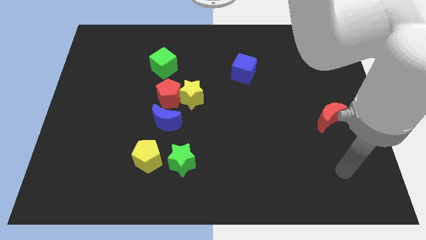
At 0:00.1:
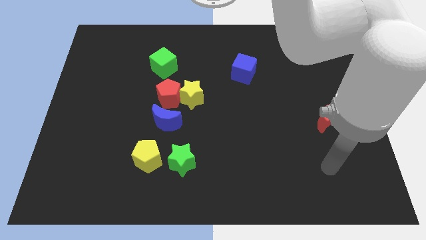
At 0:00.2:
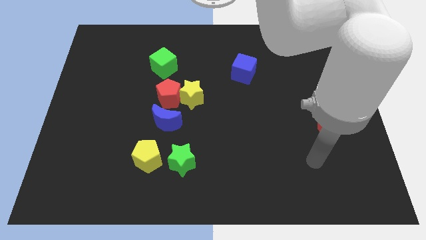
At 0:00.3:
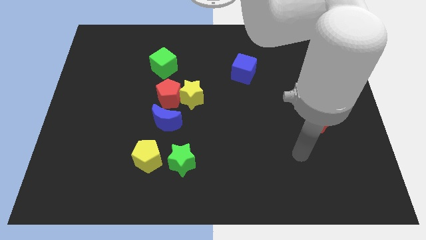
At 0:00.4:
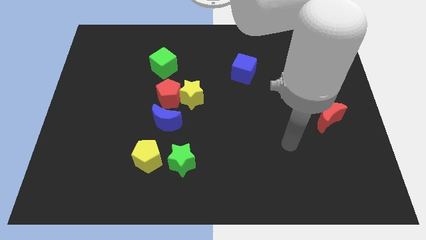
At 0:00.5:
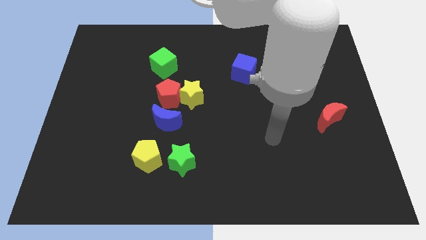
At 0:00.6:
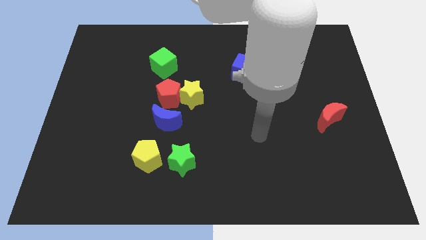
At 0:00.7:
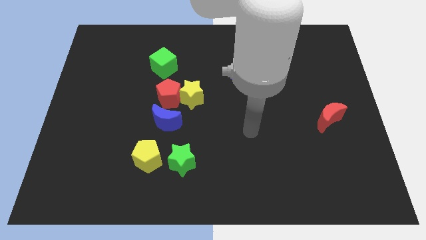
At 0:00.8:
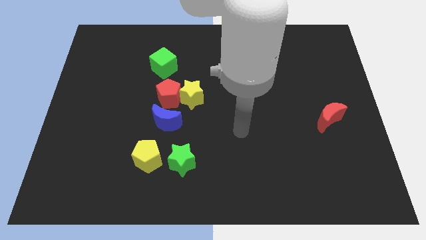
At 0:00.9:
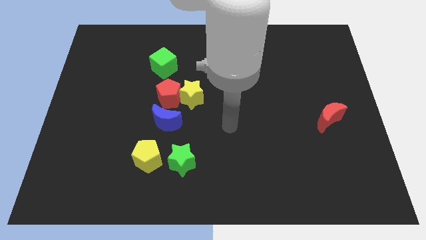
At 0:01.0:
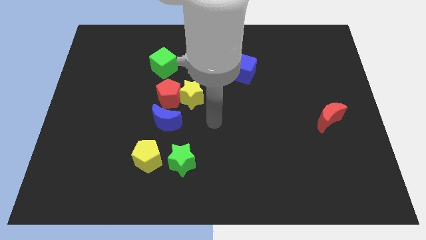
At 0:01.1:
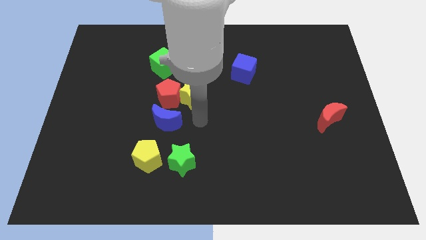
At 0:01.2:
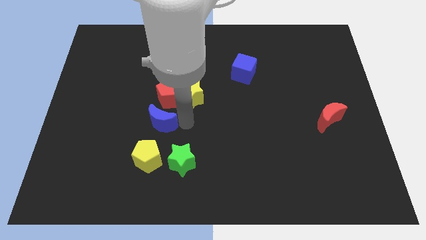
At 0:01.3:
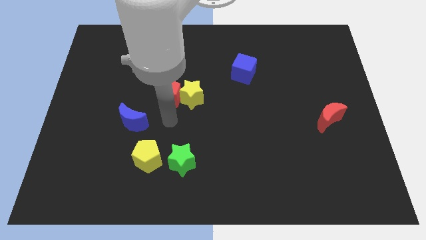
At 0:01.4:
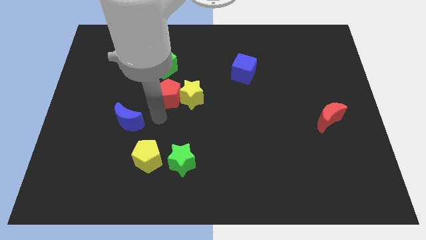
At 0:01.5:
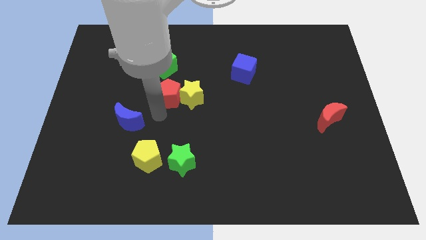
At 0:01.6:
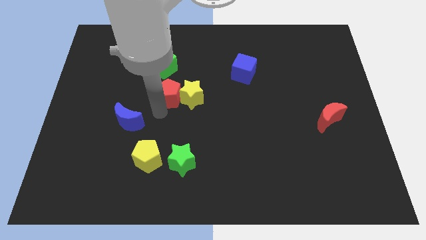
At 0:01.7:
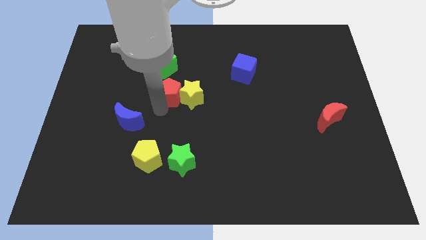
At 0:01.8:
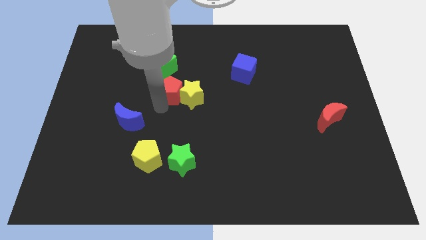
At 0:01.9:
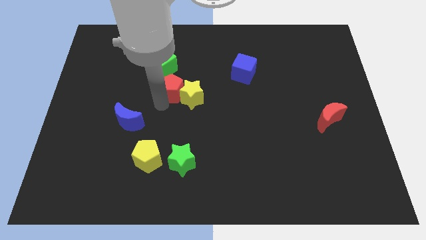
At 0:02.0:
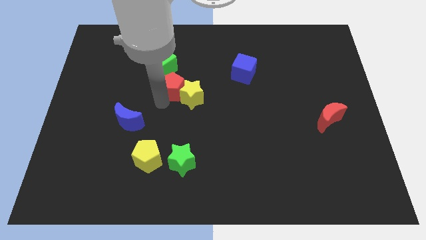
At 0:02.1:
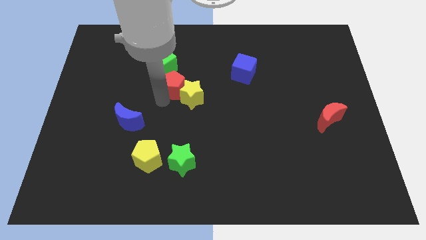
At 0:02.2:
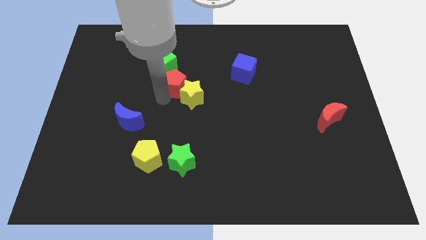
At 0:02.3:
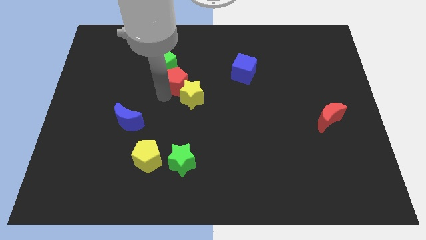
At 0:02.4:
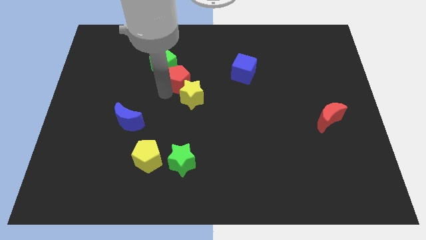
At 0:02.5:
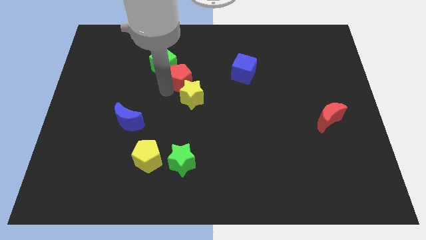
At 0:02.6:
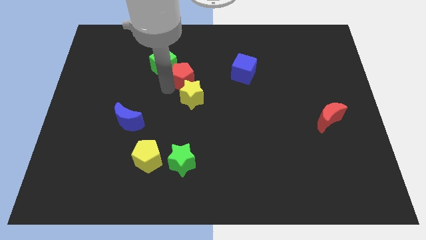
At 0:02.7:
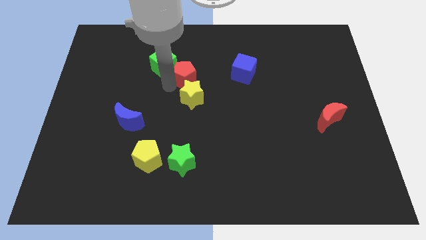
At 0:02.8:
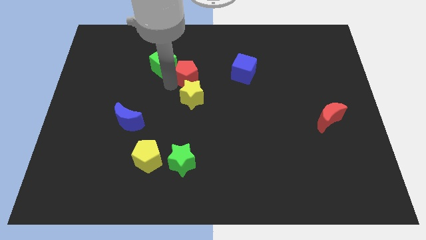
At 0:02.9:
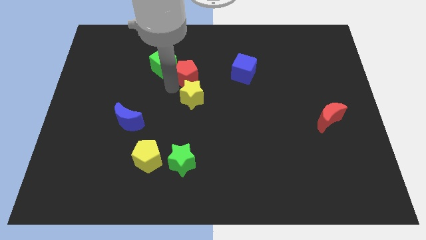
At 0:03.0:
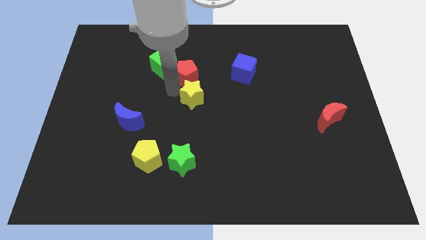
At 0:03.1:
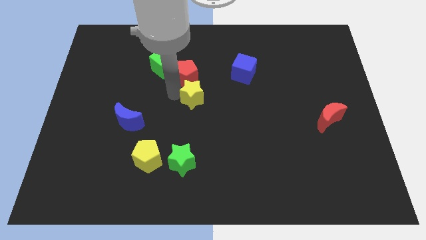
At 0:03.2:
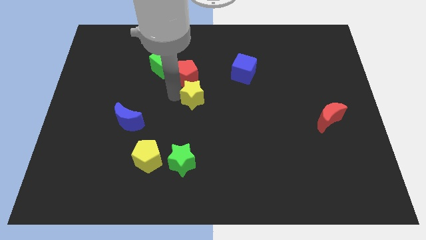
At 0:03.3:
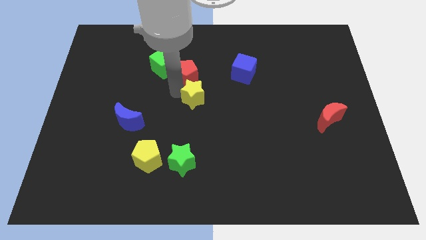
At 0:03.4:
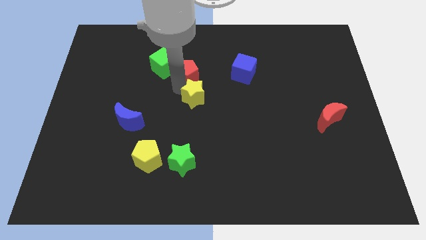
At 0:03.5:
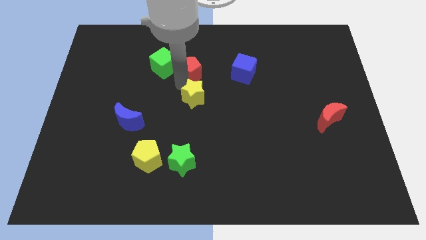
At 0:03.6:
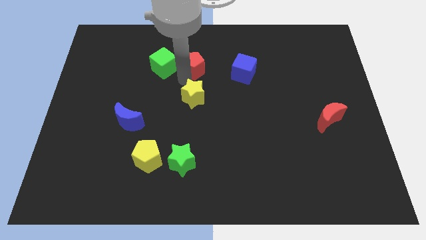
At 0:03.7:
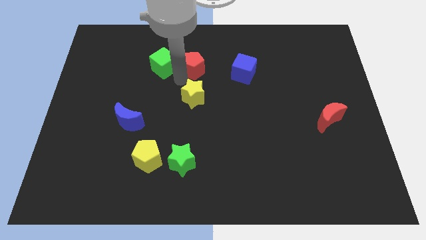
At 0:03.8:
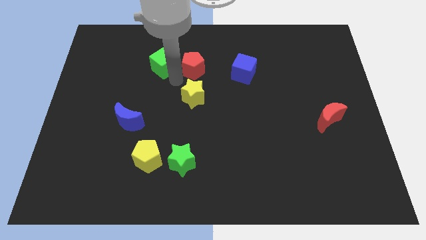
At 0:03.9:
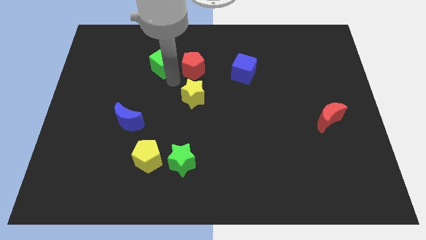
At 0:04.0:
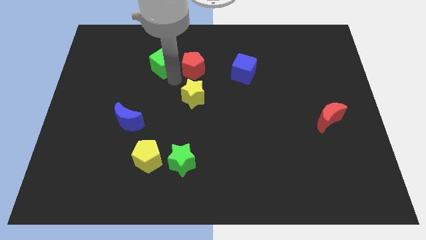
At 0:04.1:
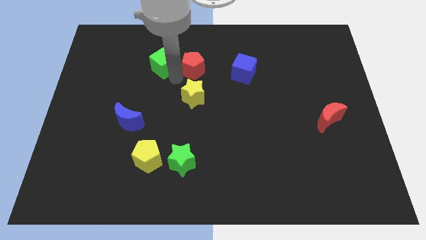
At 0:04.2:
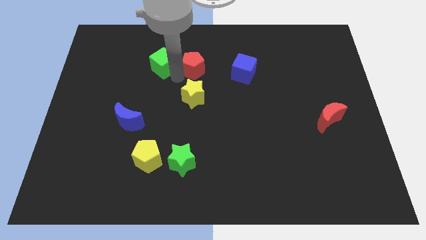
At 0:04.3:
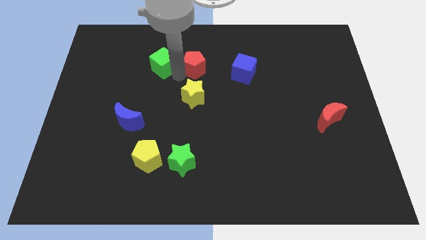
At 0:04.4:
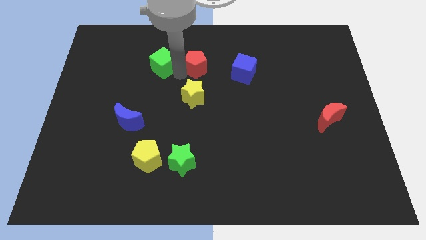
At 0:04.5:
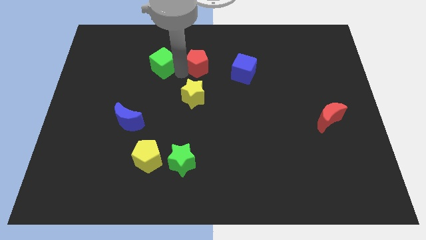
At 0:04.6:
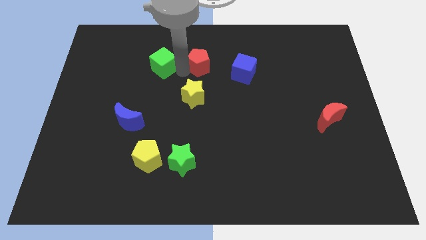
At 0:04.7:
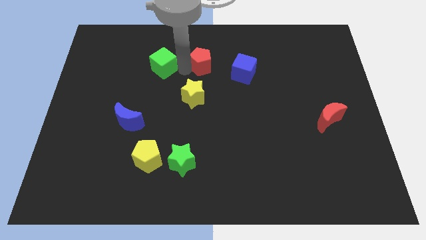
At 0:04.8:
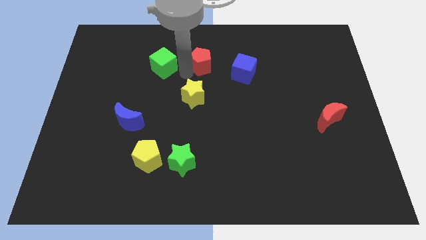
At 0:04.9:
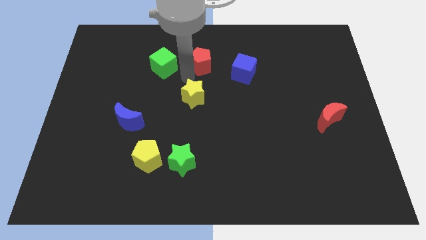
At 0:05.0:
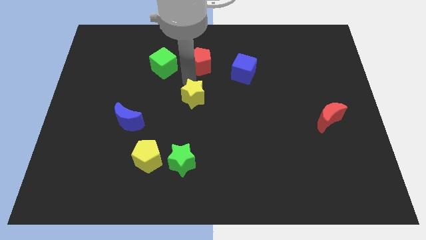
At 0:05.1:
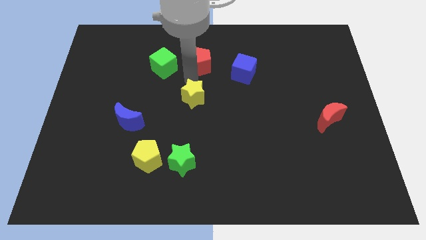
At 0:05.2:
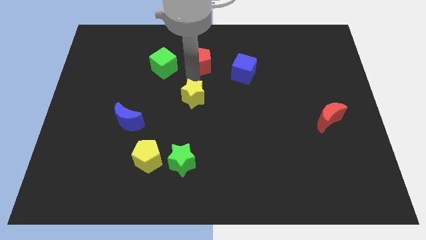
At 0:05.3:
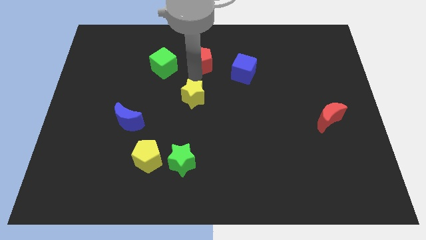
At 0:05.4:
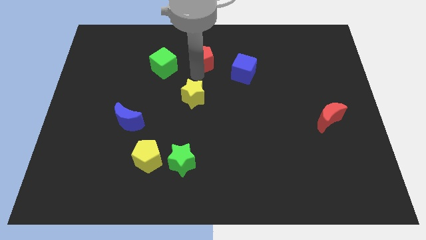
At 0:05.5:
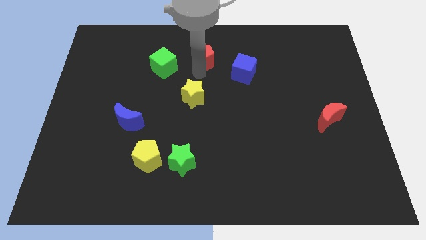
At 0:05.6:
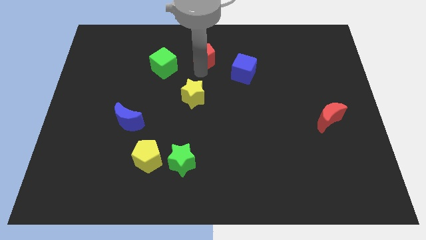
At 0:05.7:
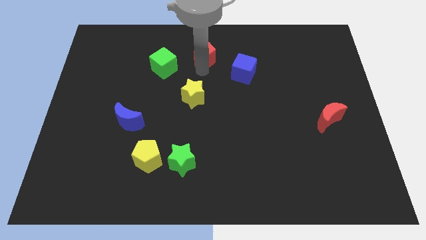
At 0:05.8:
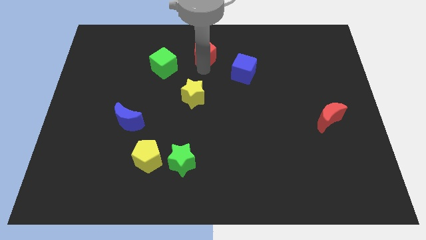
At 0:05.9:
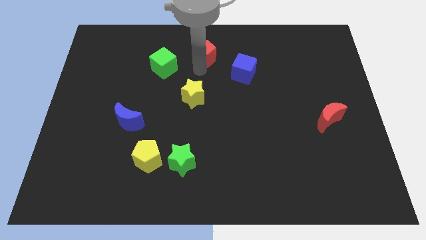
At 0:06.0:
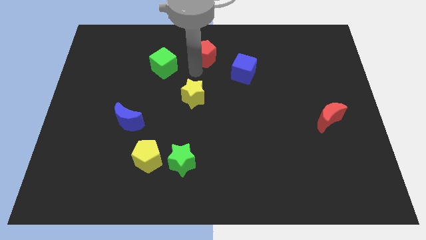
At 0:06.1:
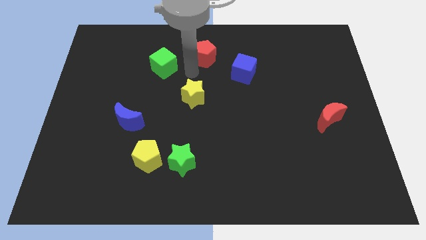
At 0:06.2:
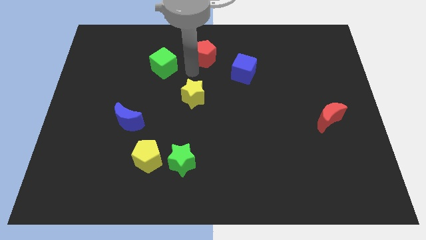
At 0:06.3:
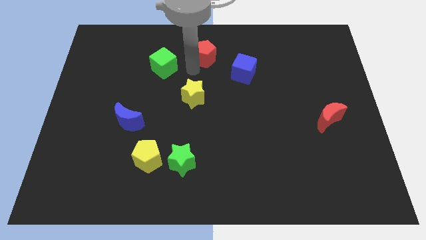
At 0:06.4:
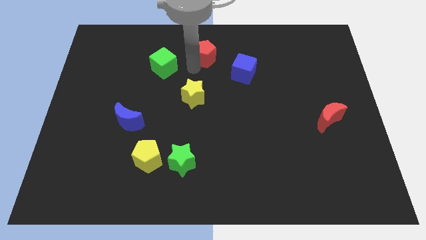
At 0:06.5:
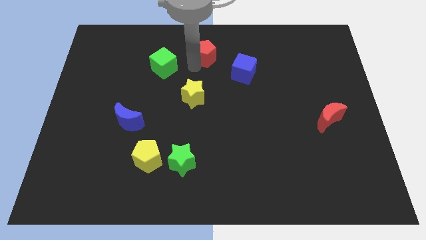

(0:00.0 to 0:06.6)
push the red pentagon to the towards your base
